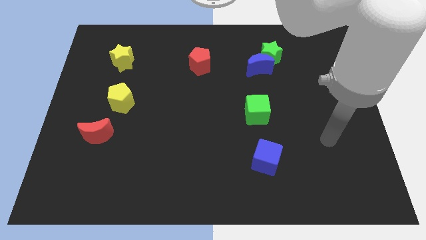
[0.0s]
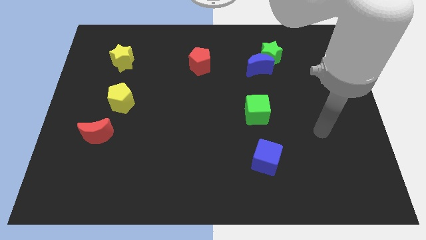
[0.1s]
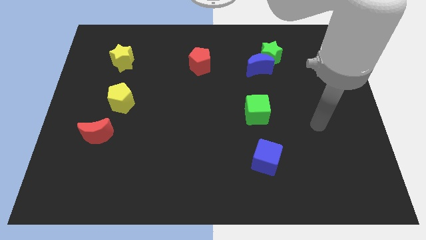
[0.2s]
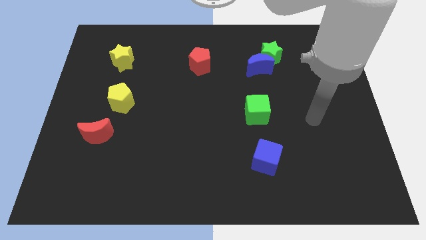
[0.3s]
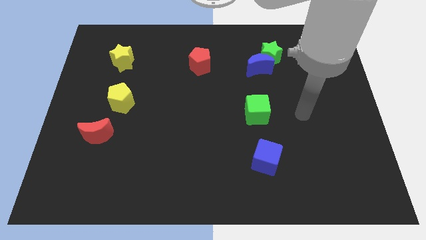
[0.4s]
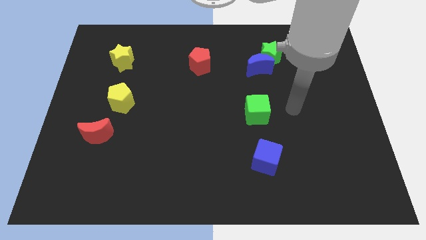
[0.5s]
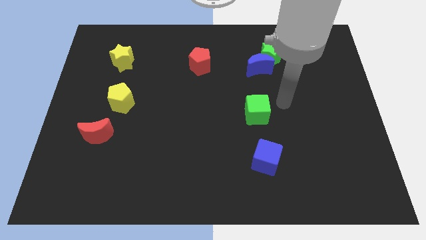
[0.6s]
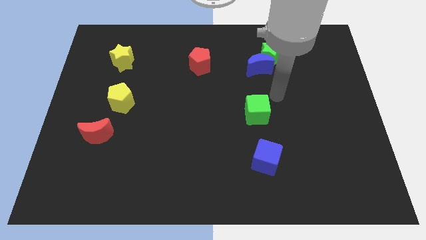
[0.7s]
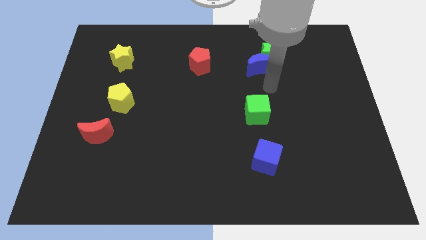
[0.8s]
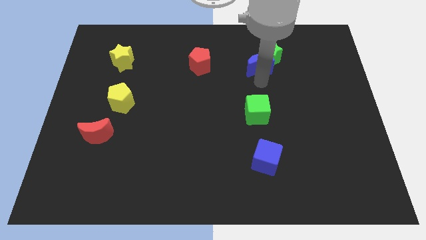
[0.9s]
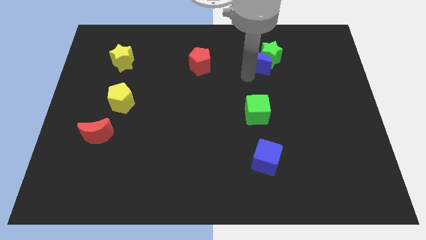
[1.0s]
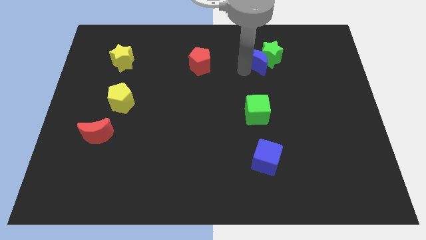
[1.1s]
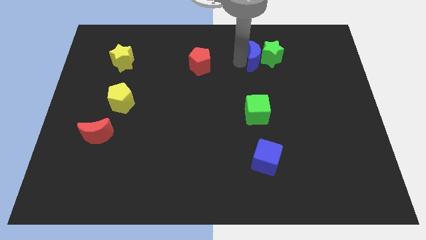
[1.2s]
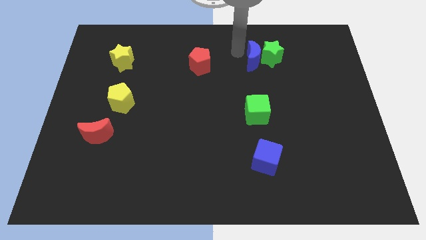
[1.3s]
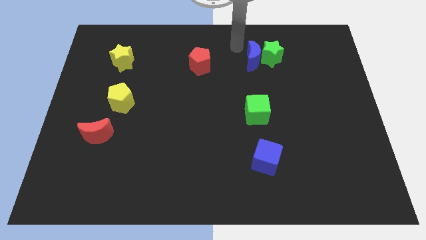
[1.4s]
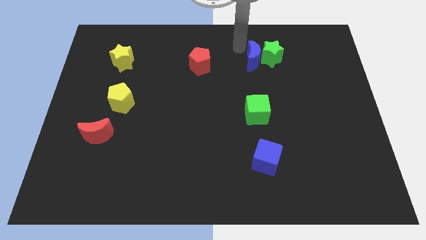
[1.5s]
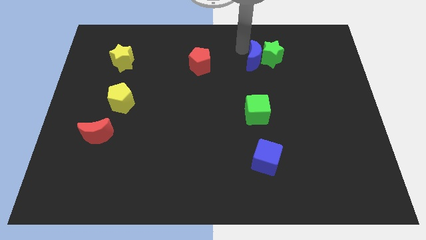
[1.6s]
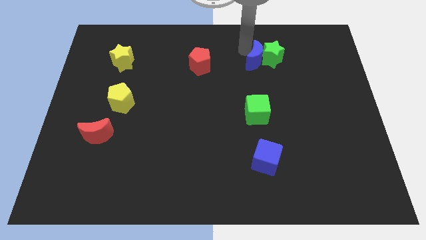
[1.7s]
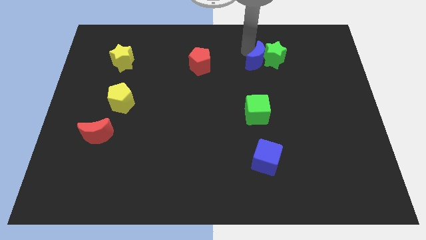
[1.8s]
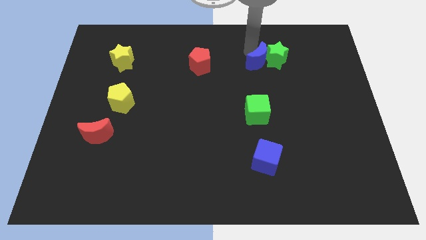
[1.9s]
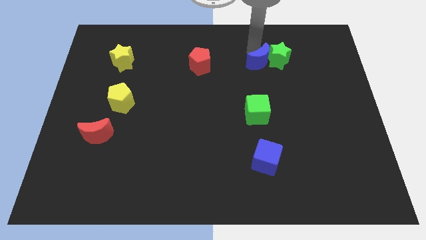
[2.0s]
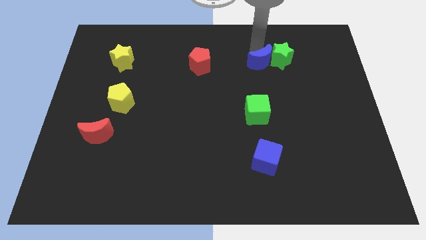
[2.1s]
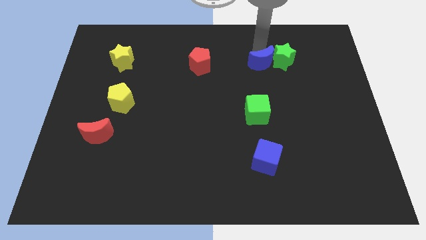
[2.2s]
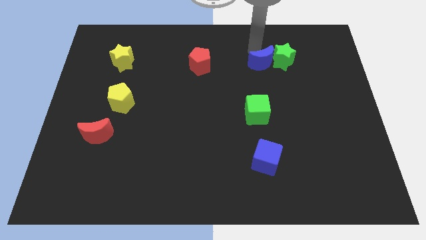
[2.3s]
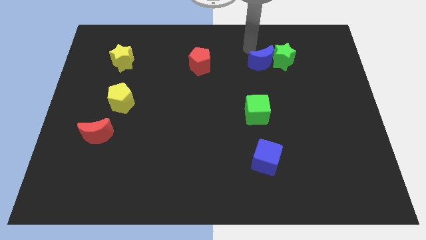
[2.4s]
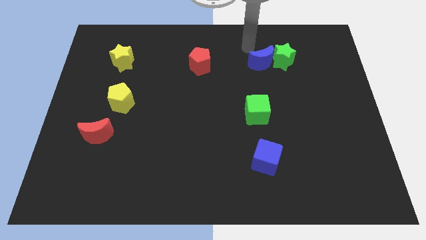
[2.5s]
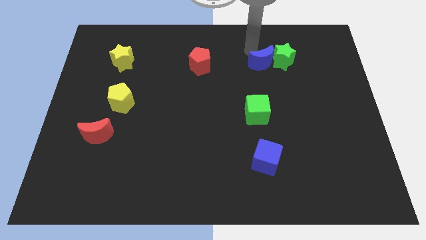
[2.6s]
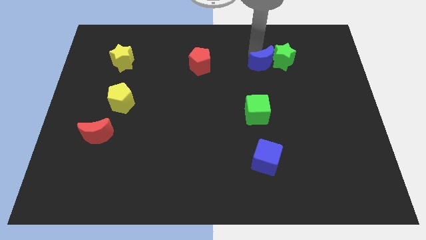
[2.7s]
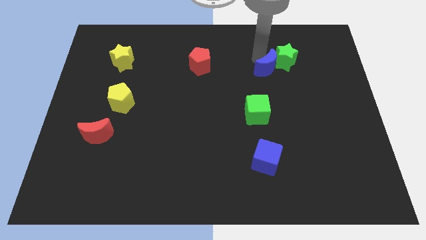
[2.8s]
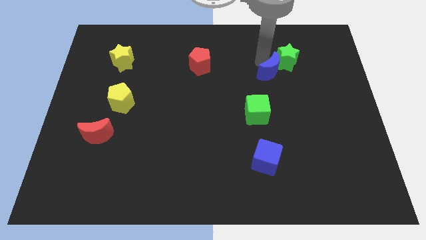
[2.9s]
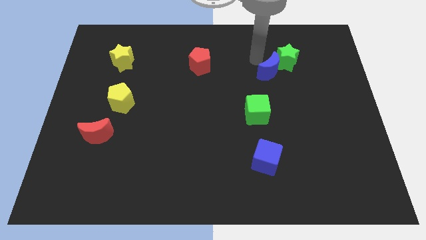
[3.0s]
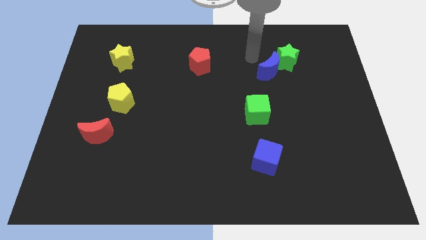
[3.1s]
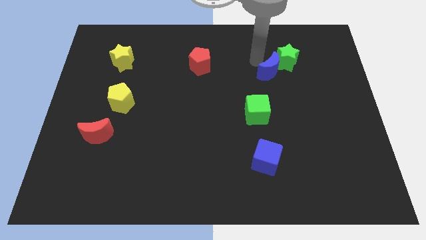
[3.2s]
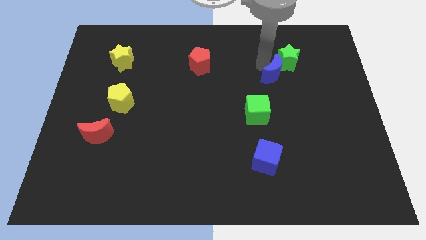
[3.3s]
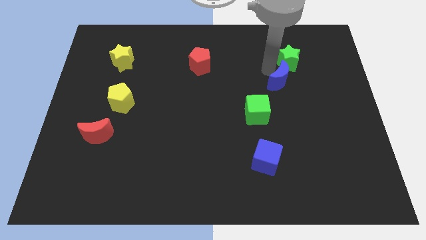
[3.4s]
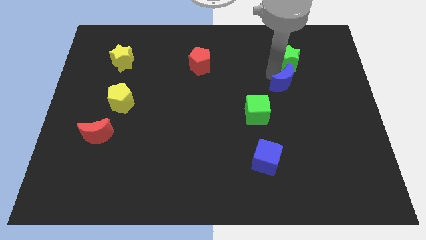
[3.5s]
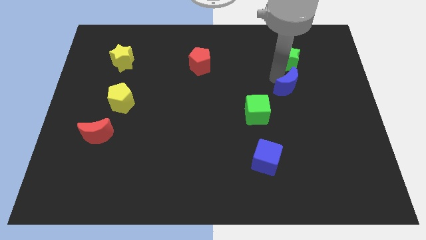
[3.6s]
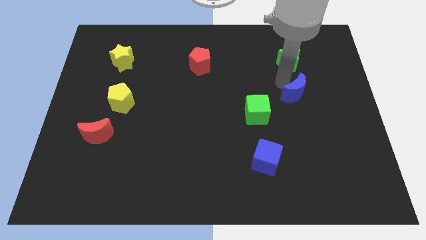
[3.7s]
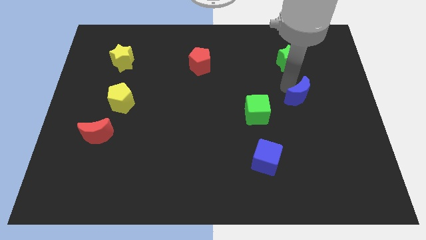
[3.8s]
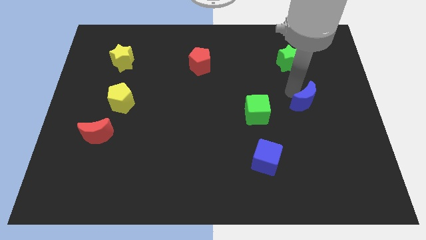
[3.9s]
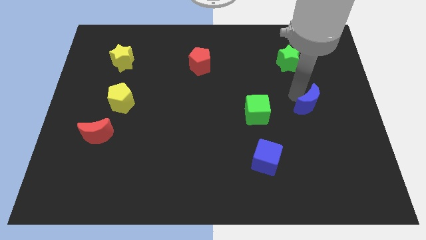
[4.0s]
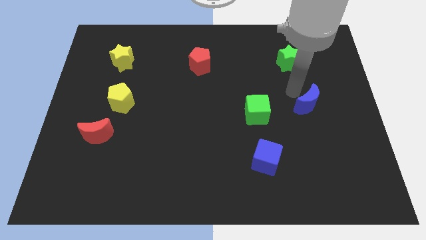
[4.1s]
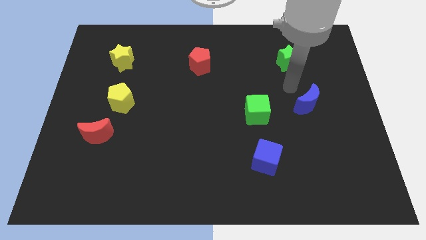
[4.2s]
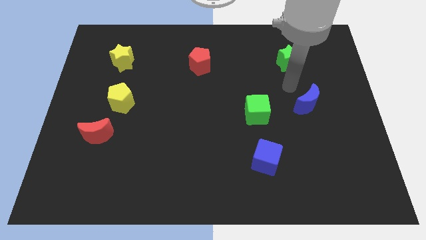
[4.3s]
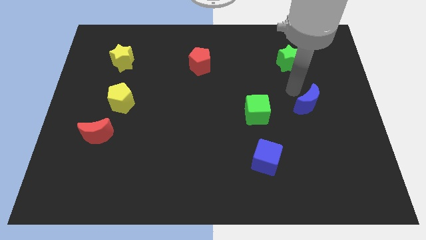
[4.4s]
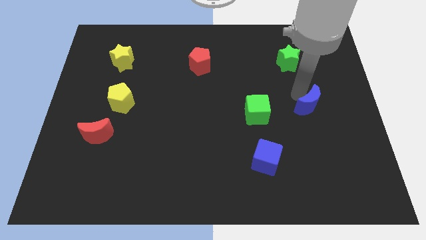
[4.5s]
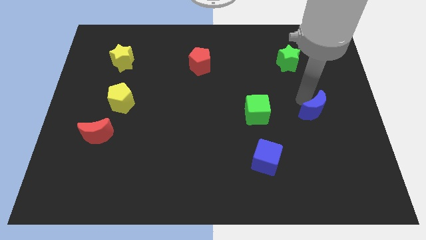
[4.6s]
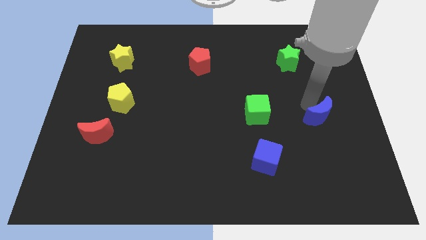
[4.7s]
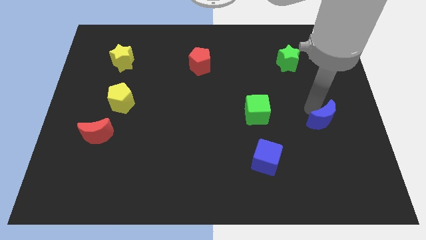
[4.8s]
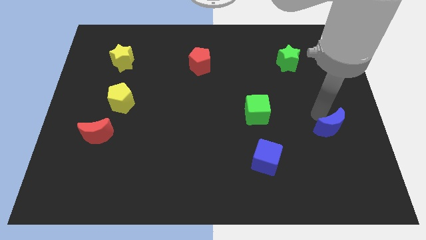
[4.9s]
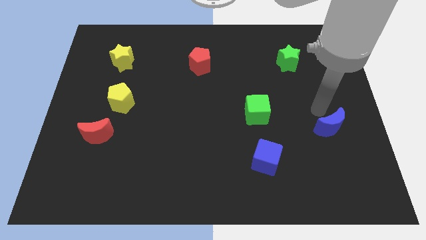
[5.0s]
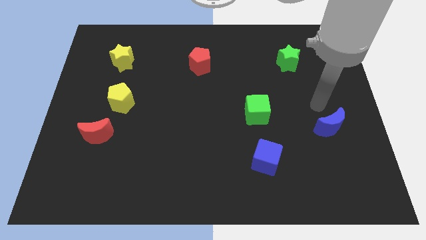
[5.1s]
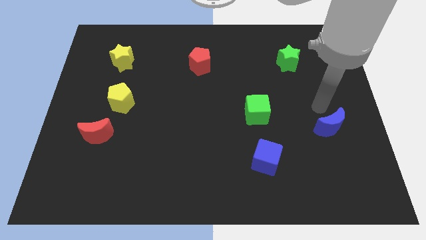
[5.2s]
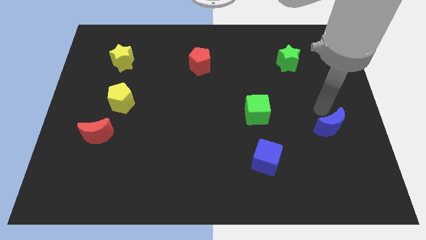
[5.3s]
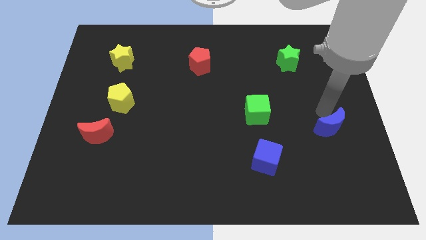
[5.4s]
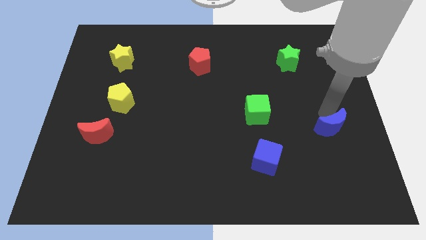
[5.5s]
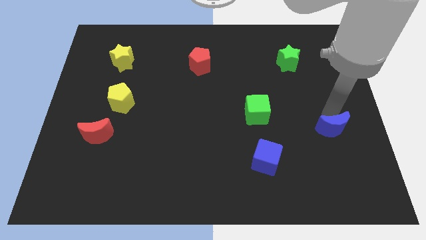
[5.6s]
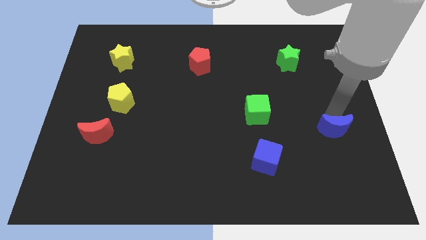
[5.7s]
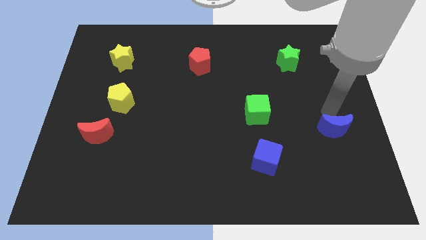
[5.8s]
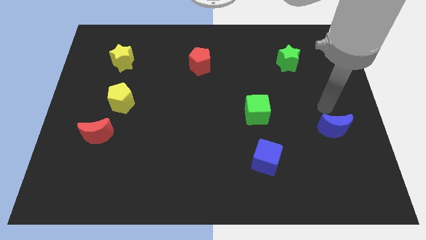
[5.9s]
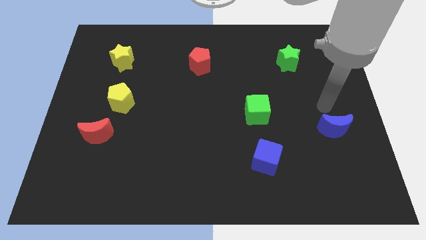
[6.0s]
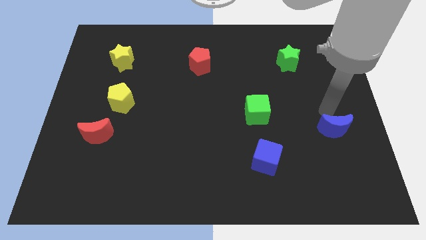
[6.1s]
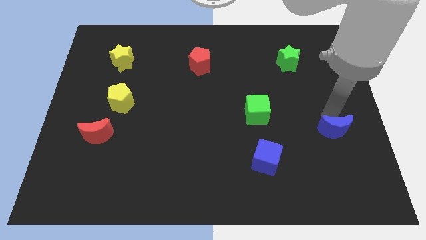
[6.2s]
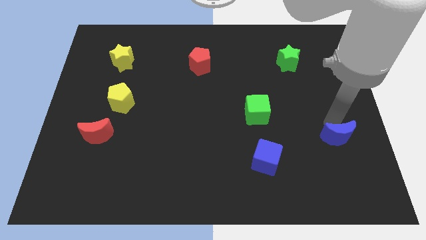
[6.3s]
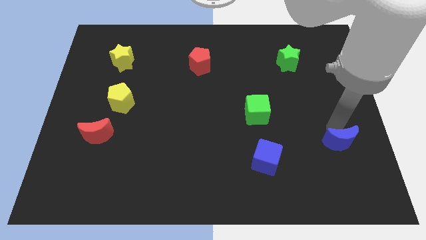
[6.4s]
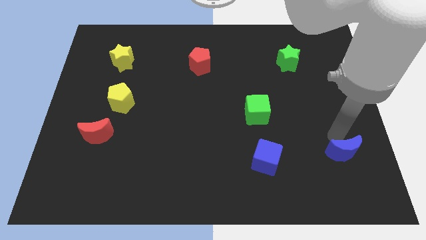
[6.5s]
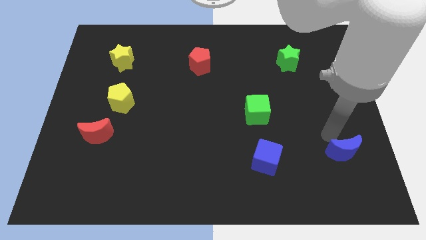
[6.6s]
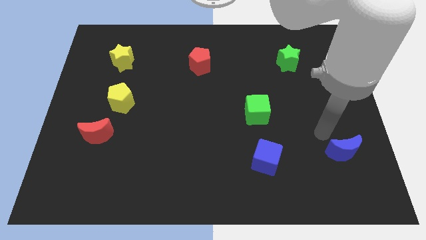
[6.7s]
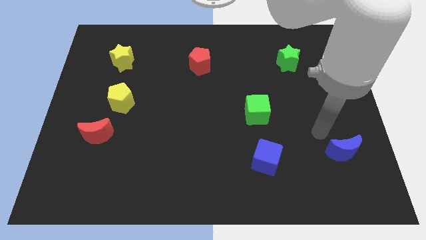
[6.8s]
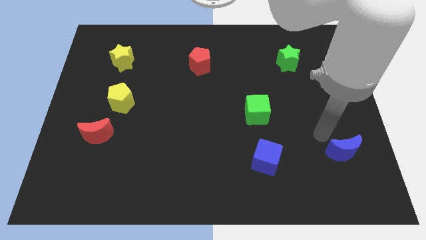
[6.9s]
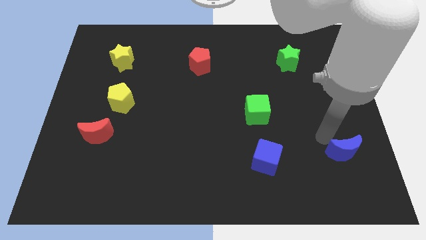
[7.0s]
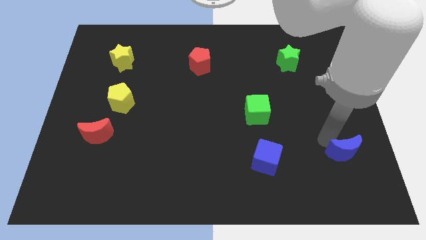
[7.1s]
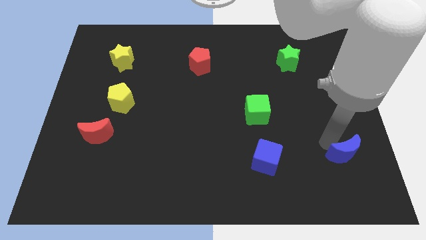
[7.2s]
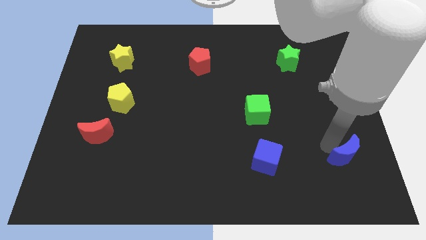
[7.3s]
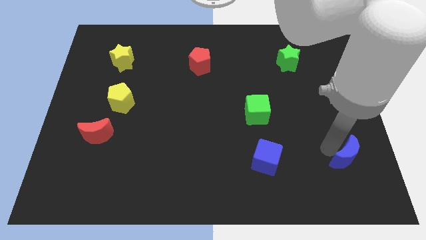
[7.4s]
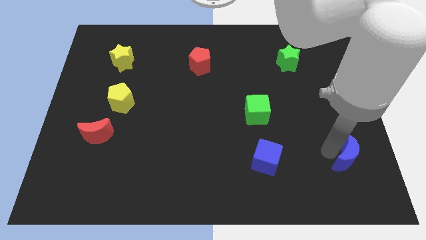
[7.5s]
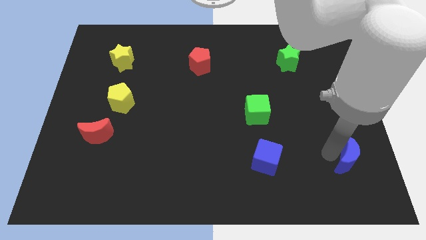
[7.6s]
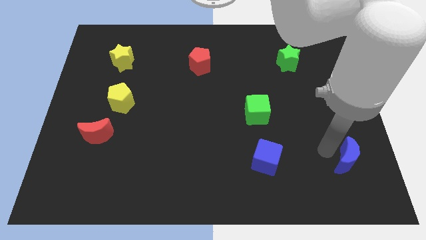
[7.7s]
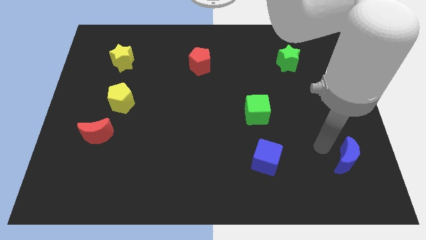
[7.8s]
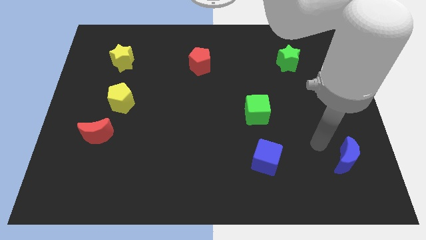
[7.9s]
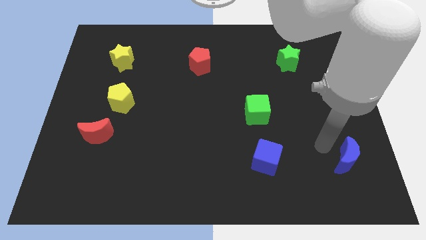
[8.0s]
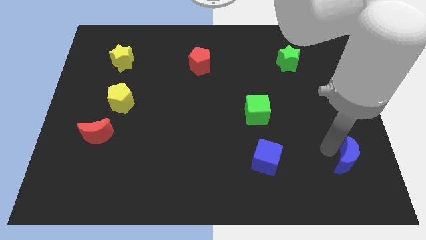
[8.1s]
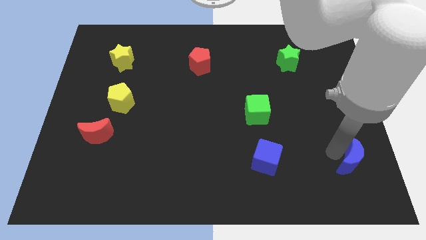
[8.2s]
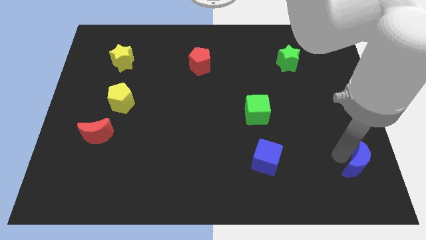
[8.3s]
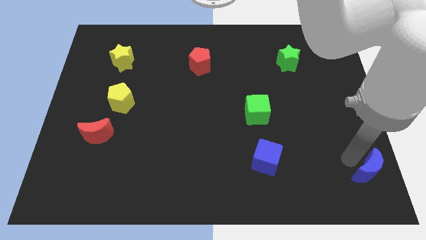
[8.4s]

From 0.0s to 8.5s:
move the blue moon to the lower right corner
